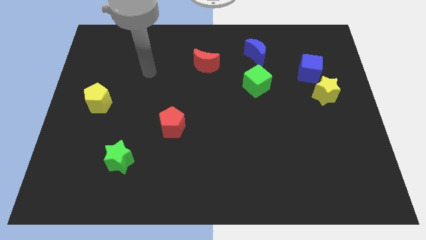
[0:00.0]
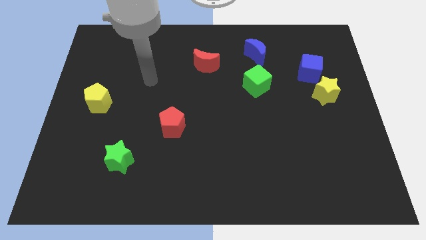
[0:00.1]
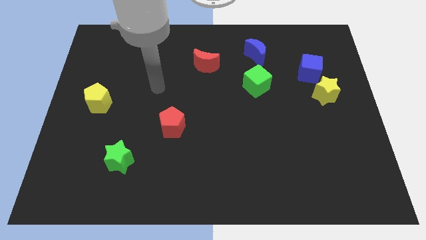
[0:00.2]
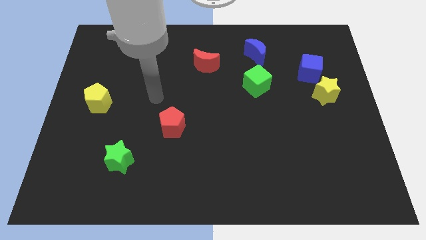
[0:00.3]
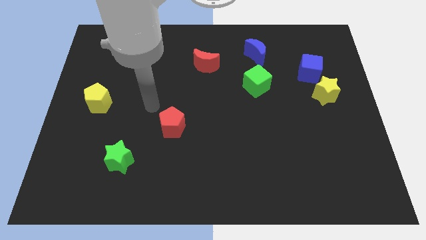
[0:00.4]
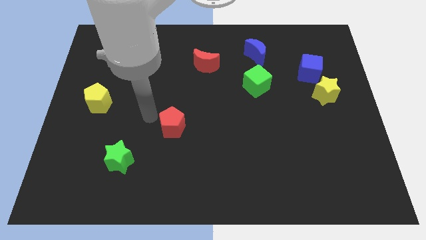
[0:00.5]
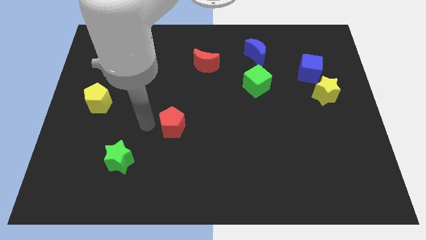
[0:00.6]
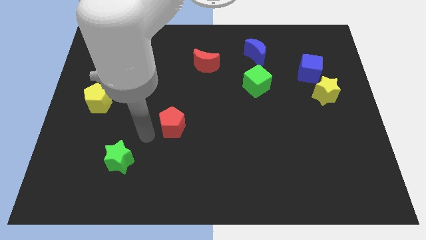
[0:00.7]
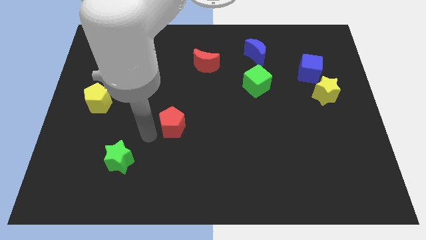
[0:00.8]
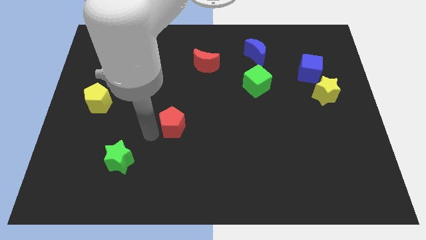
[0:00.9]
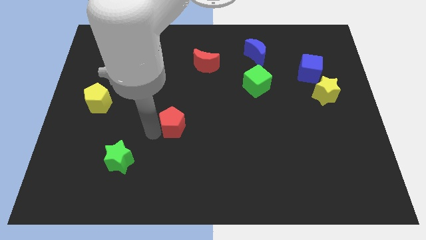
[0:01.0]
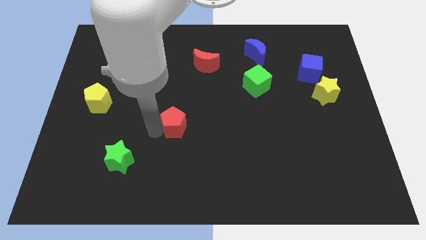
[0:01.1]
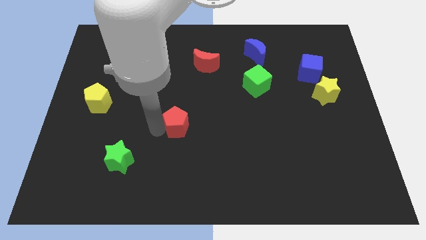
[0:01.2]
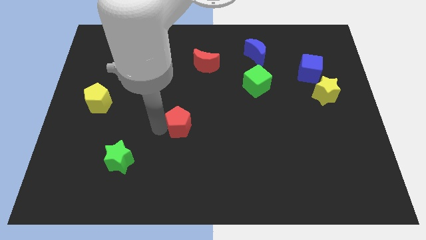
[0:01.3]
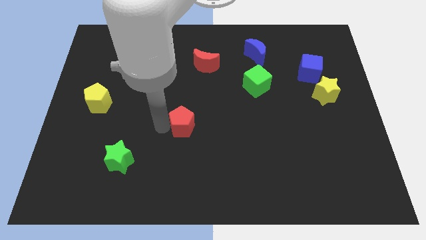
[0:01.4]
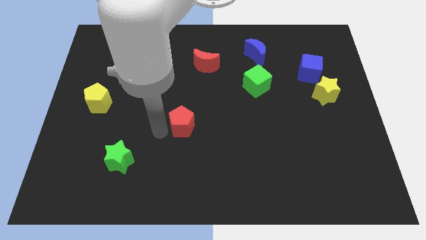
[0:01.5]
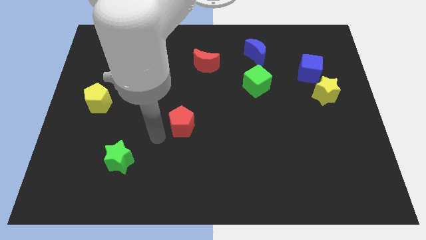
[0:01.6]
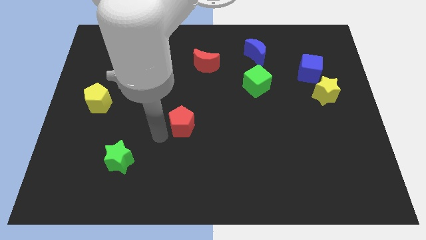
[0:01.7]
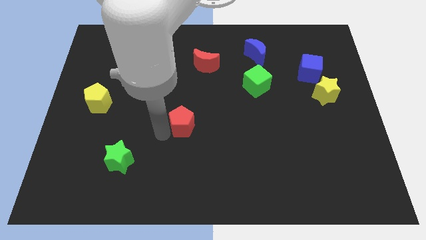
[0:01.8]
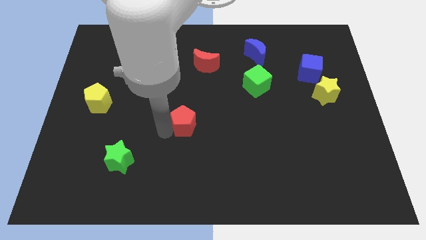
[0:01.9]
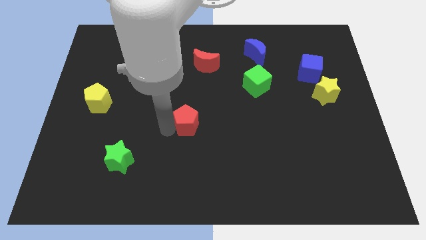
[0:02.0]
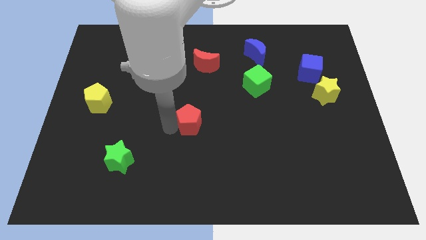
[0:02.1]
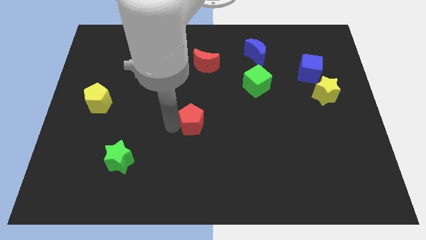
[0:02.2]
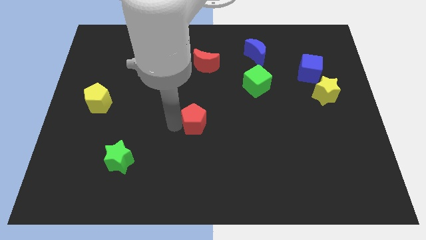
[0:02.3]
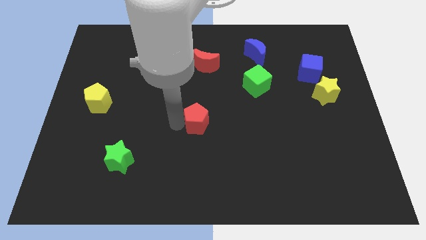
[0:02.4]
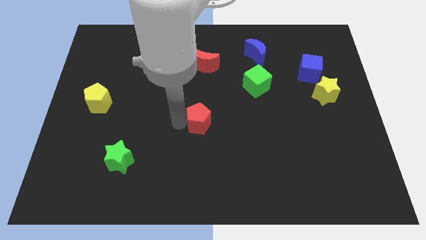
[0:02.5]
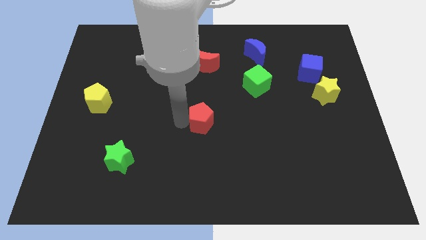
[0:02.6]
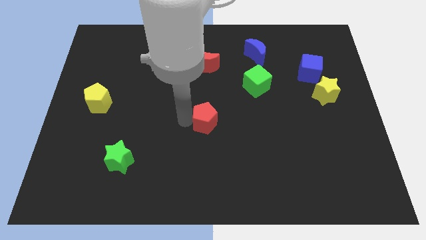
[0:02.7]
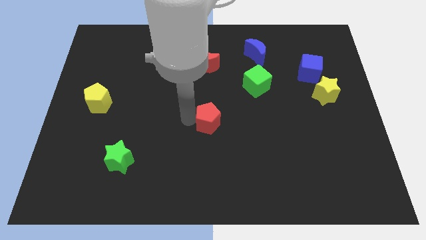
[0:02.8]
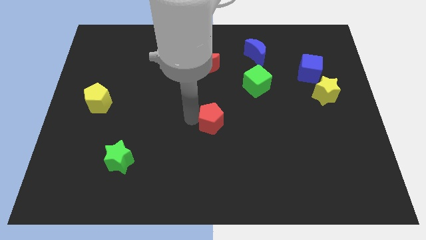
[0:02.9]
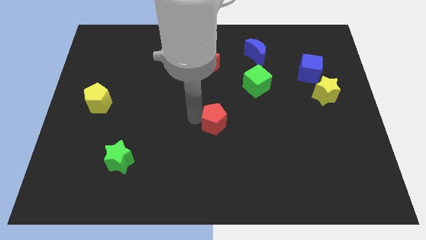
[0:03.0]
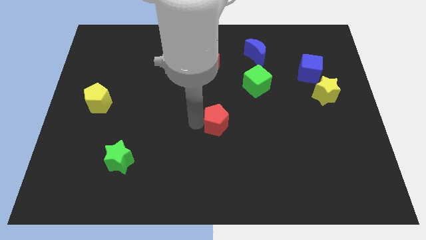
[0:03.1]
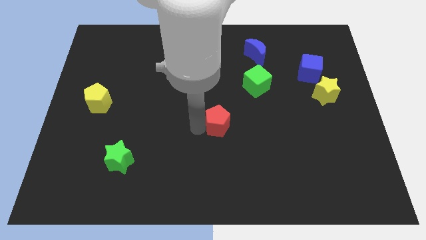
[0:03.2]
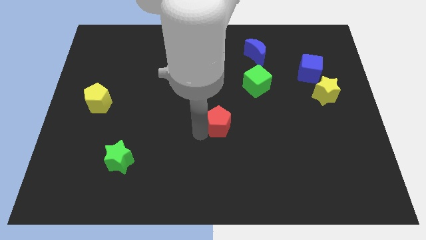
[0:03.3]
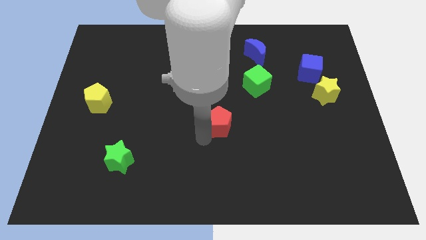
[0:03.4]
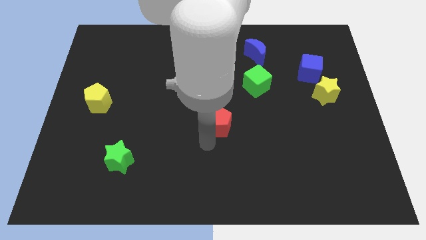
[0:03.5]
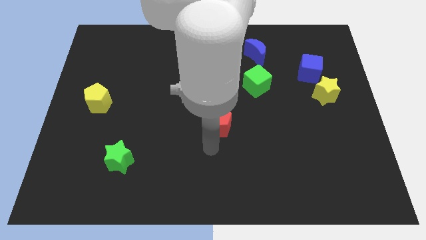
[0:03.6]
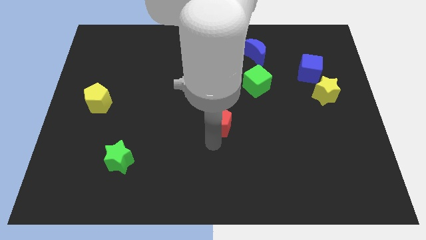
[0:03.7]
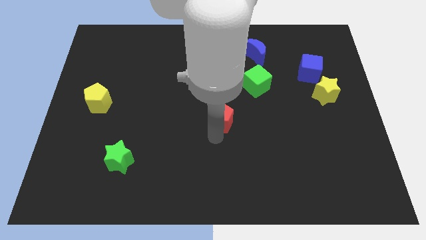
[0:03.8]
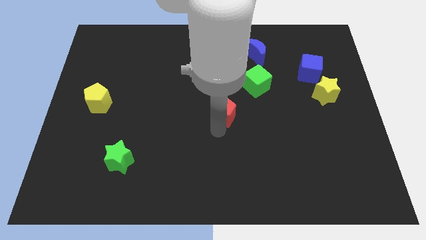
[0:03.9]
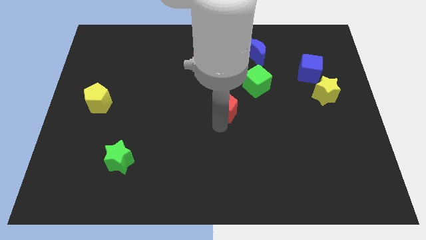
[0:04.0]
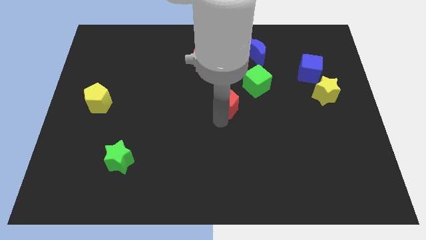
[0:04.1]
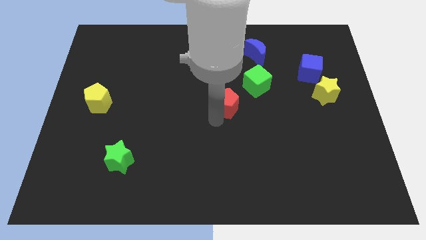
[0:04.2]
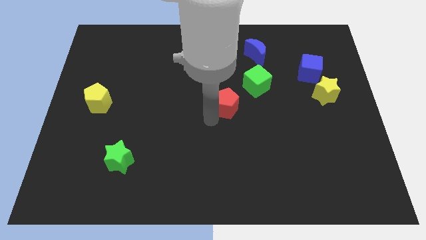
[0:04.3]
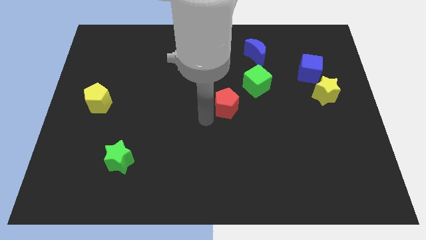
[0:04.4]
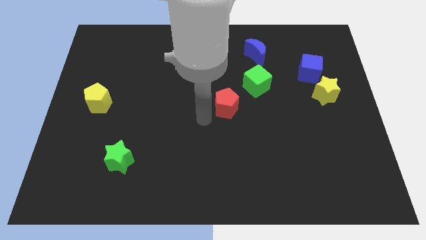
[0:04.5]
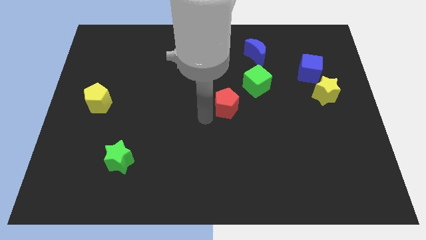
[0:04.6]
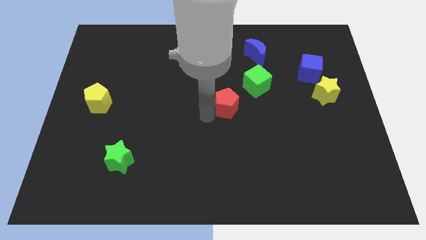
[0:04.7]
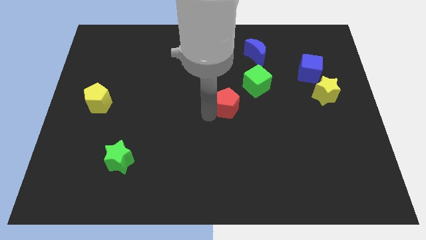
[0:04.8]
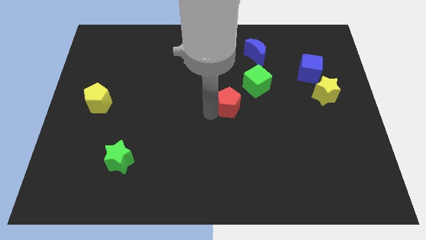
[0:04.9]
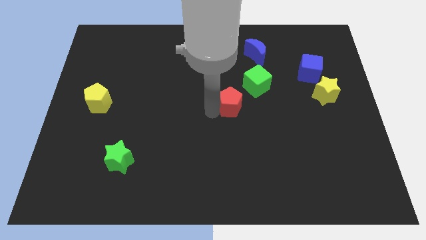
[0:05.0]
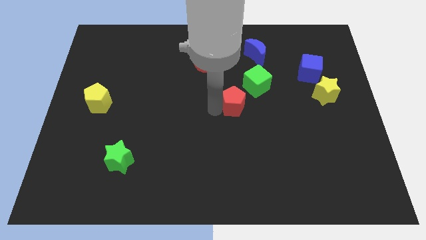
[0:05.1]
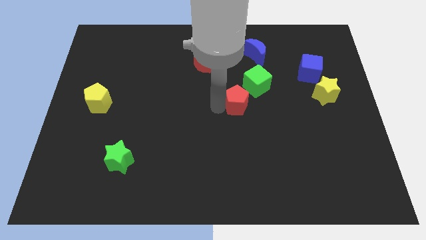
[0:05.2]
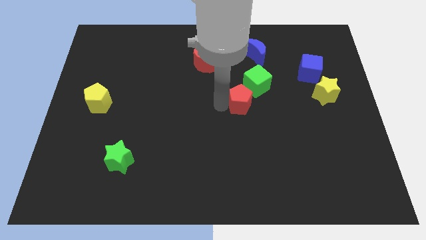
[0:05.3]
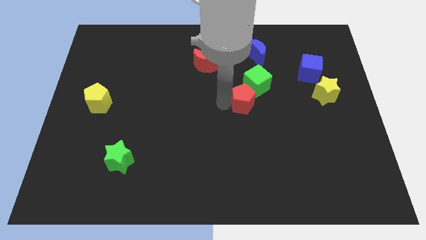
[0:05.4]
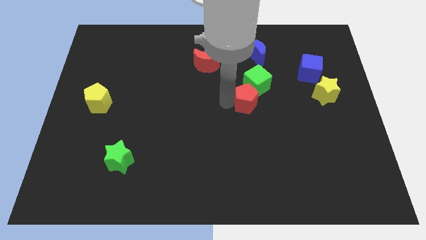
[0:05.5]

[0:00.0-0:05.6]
put the red pentagon towards the green cube

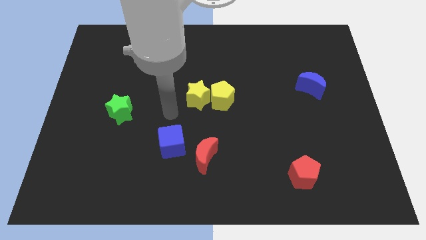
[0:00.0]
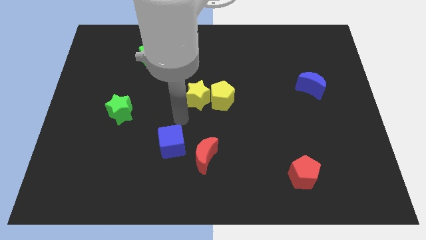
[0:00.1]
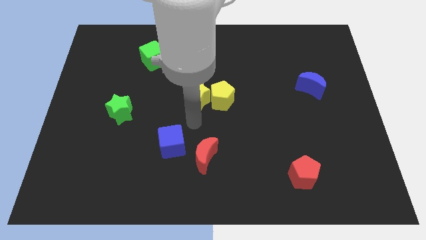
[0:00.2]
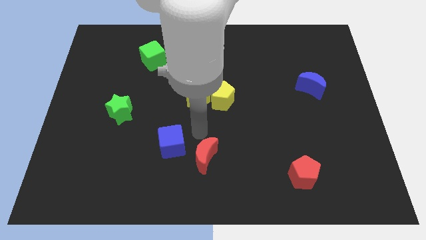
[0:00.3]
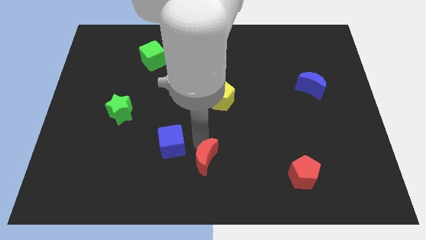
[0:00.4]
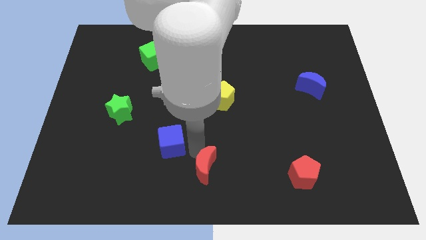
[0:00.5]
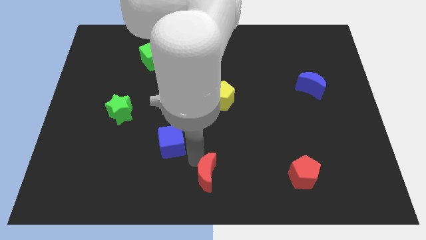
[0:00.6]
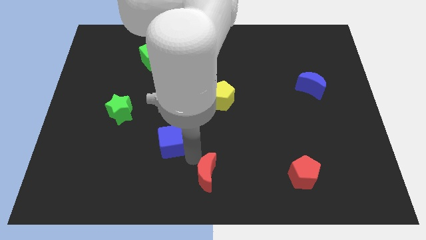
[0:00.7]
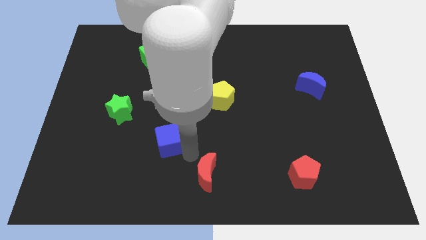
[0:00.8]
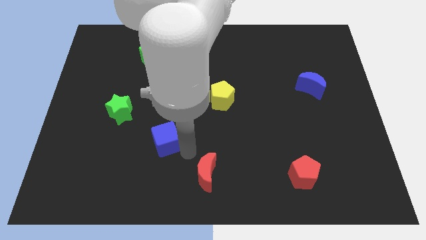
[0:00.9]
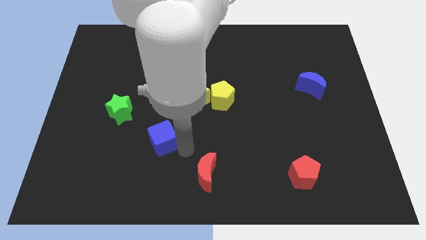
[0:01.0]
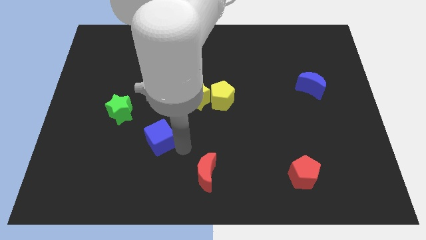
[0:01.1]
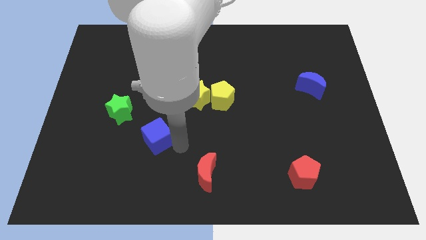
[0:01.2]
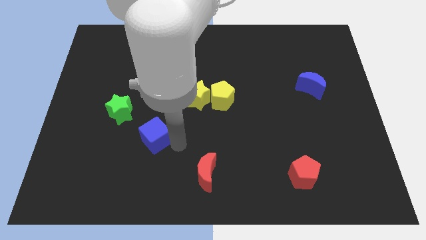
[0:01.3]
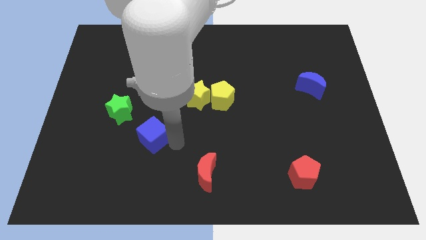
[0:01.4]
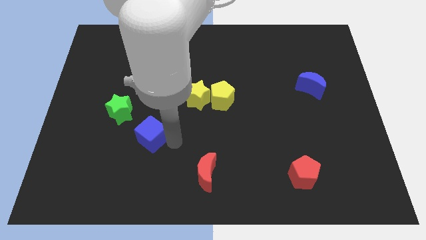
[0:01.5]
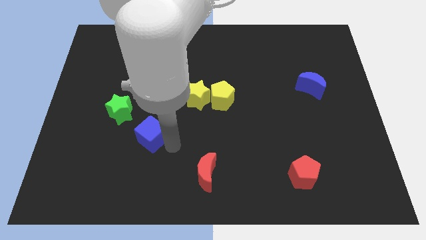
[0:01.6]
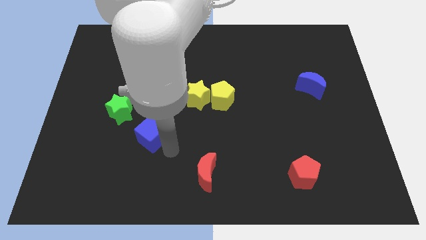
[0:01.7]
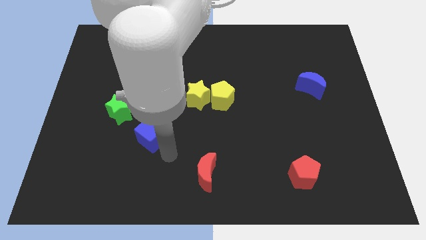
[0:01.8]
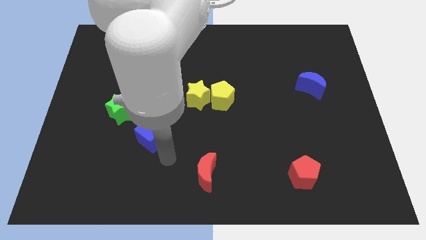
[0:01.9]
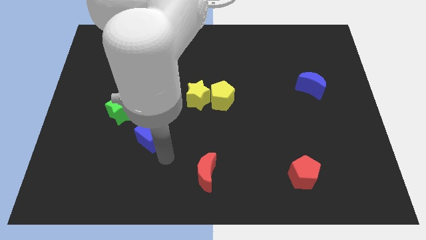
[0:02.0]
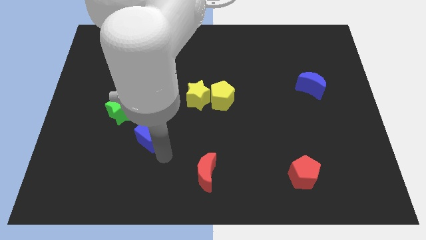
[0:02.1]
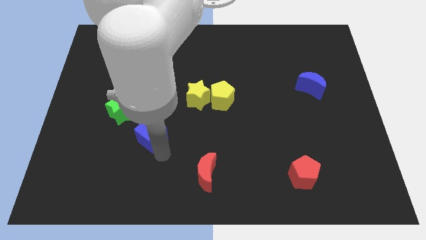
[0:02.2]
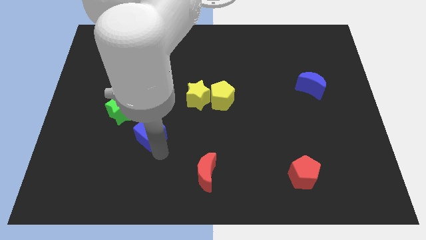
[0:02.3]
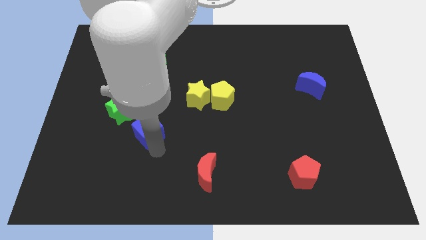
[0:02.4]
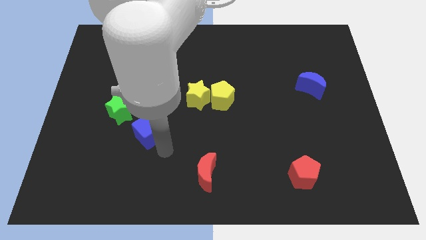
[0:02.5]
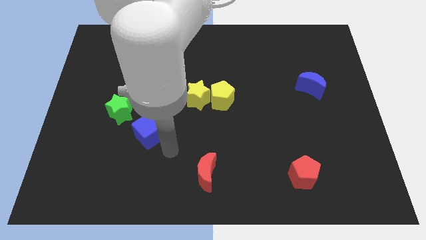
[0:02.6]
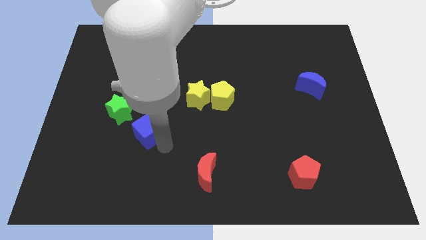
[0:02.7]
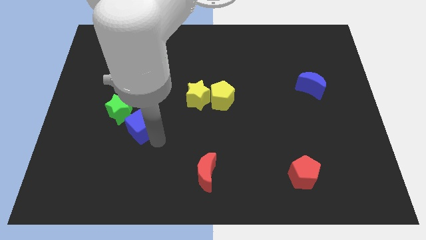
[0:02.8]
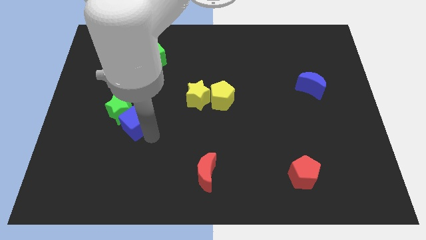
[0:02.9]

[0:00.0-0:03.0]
push the blue cube towards the green star
